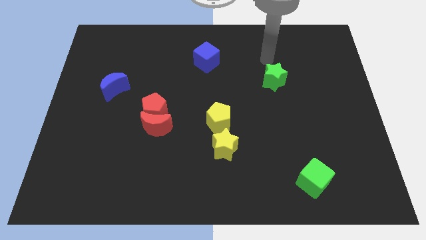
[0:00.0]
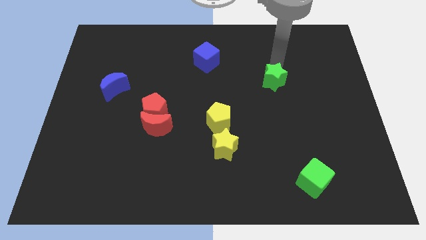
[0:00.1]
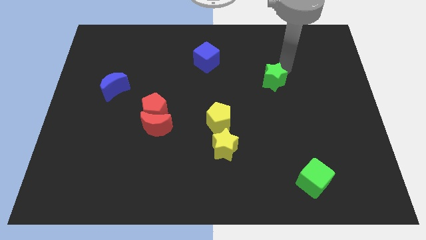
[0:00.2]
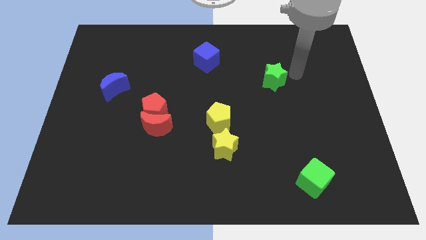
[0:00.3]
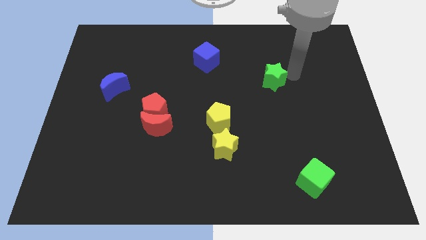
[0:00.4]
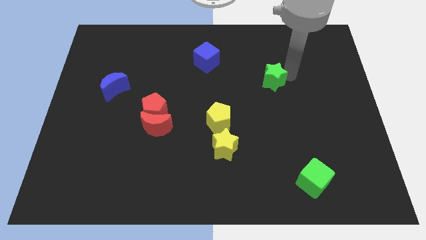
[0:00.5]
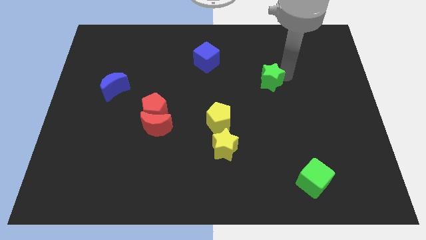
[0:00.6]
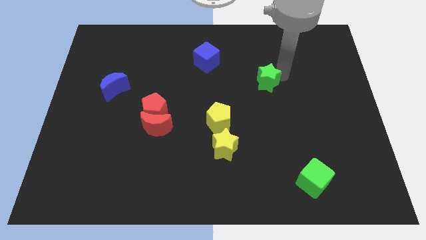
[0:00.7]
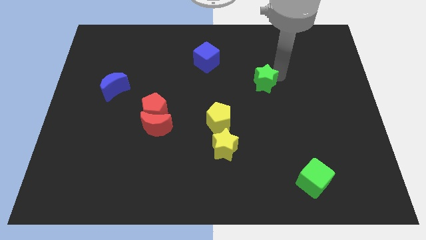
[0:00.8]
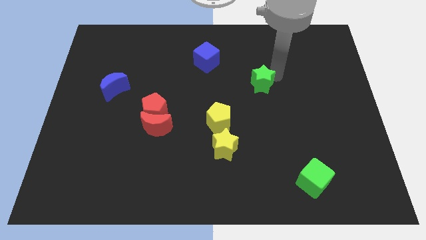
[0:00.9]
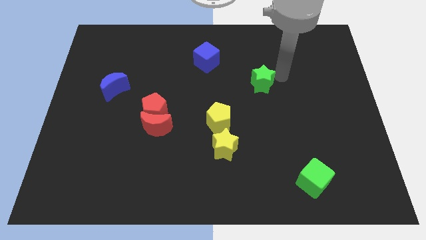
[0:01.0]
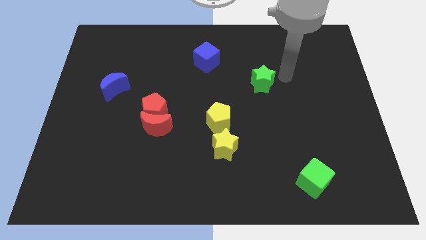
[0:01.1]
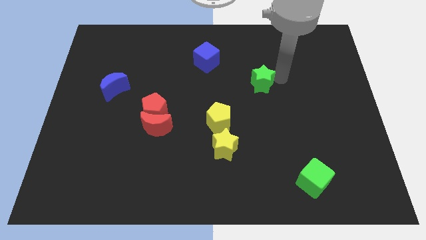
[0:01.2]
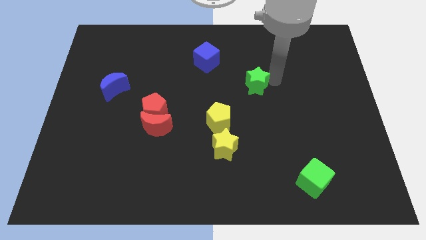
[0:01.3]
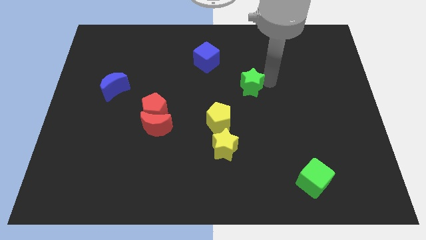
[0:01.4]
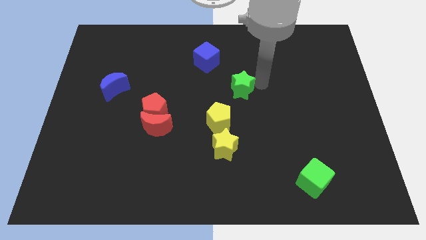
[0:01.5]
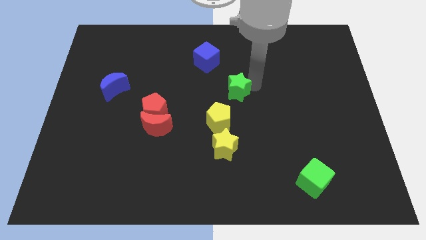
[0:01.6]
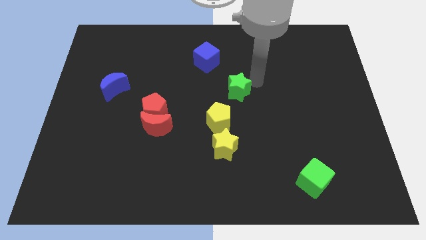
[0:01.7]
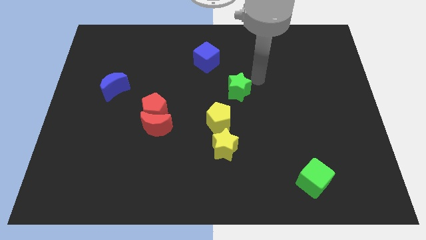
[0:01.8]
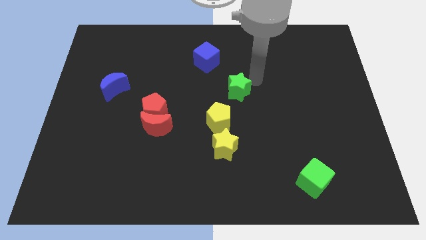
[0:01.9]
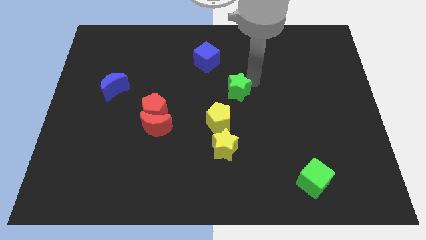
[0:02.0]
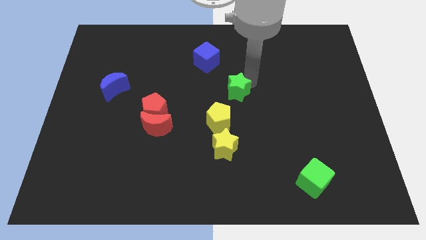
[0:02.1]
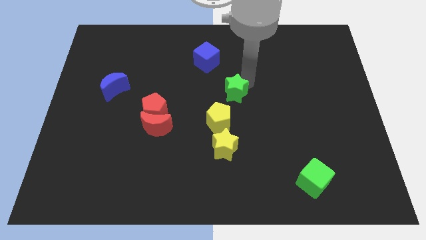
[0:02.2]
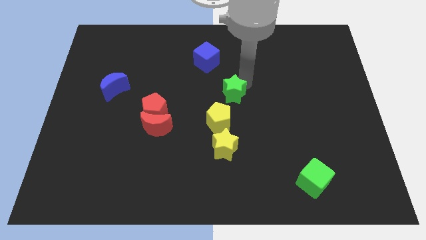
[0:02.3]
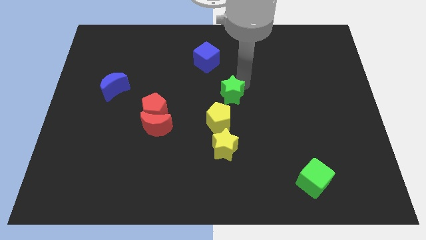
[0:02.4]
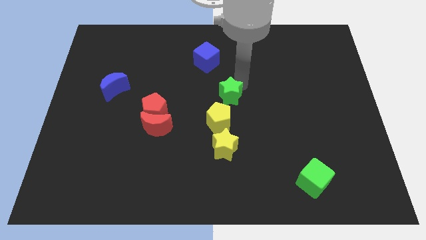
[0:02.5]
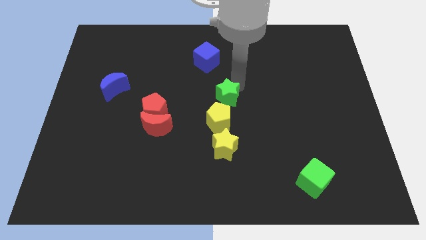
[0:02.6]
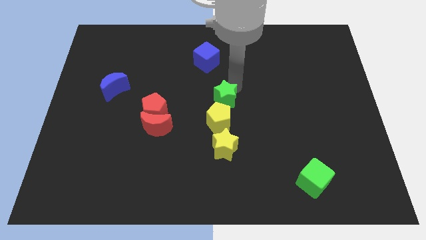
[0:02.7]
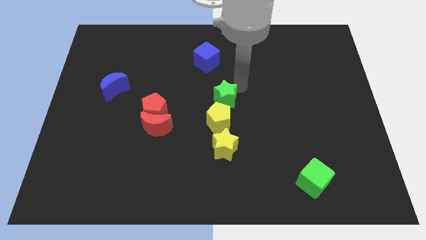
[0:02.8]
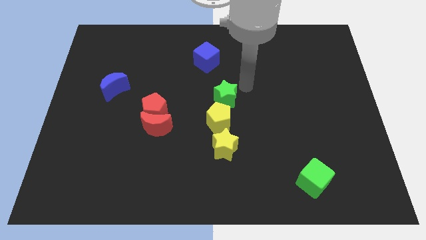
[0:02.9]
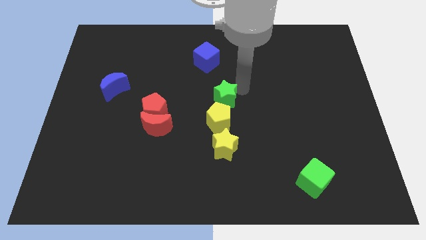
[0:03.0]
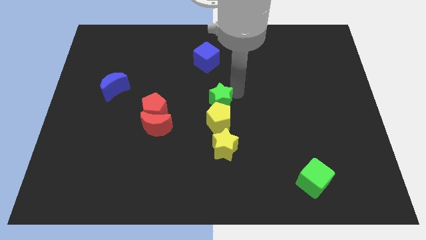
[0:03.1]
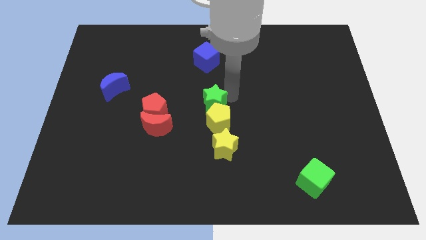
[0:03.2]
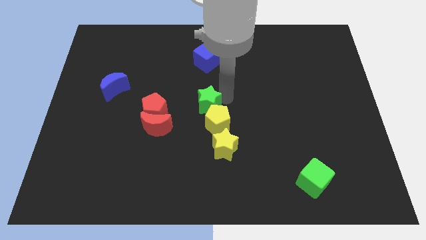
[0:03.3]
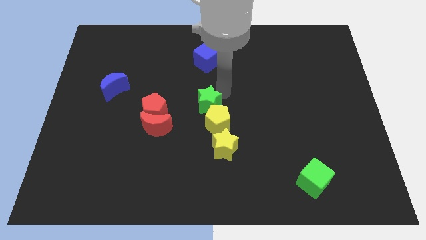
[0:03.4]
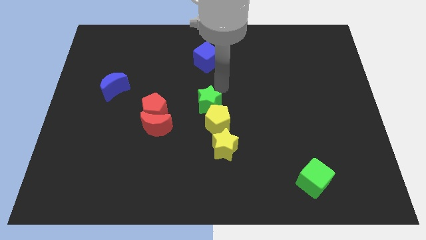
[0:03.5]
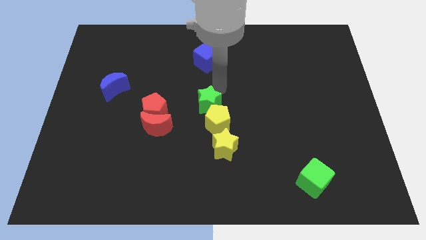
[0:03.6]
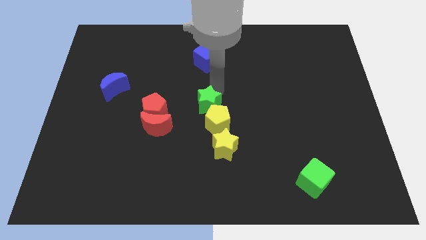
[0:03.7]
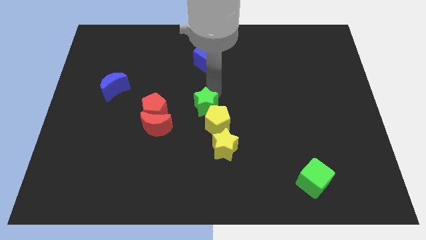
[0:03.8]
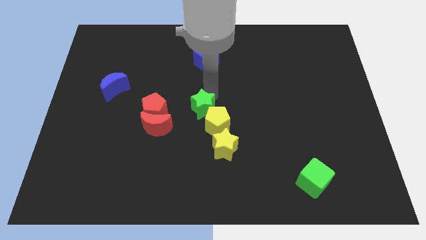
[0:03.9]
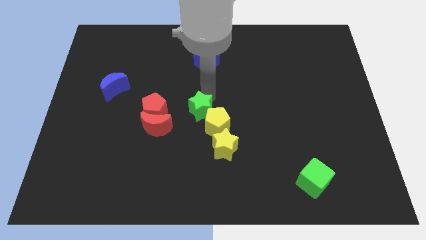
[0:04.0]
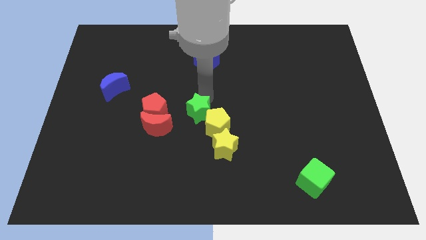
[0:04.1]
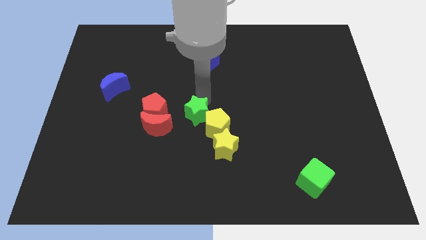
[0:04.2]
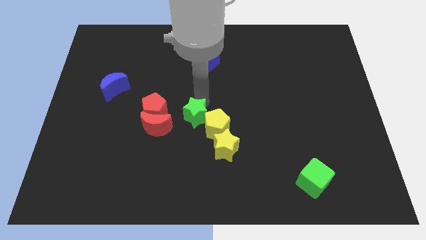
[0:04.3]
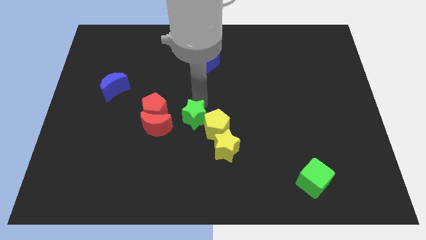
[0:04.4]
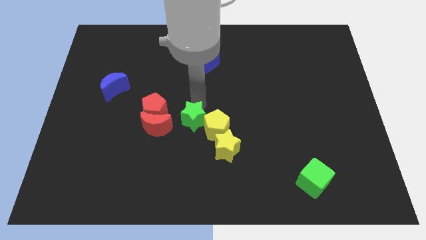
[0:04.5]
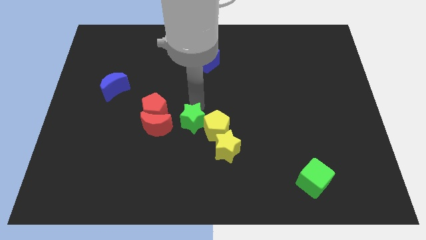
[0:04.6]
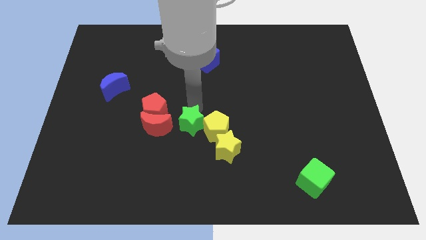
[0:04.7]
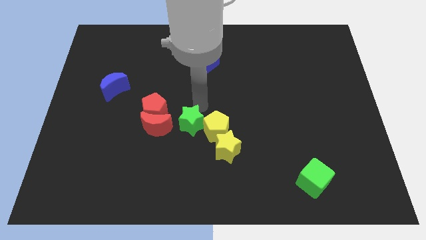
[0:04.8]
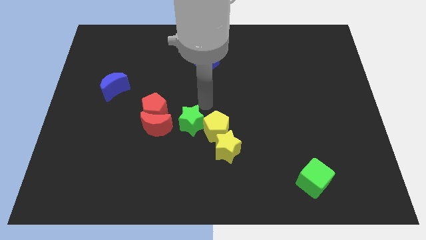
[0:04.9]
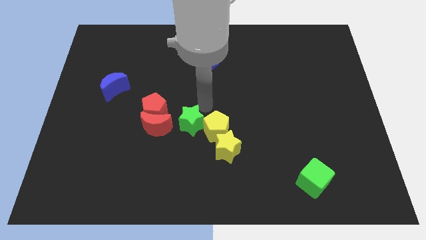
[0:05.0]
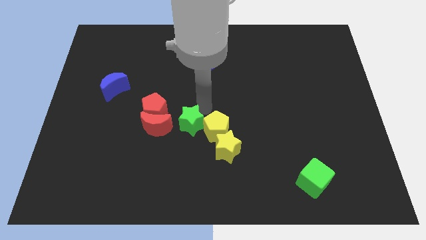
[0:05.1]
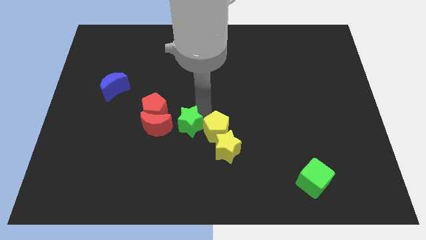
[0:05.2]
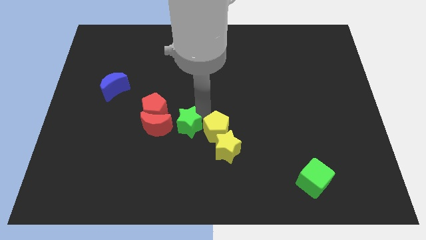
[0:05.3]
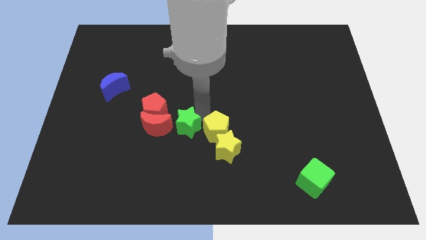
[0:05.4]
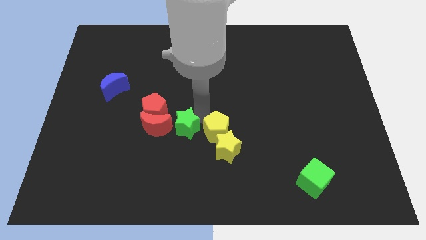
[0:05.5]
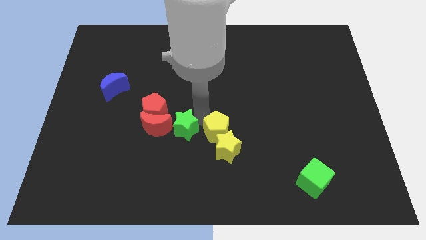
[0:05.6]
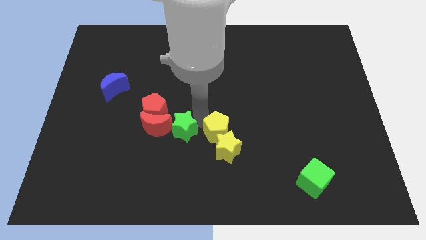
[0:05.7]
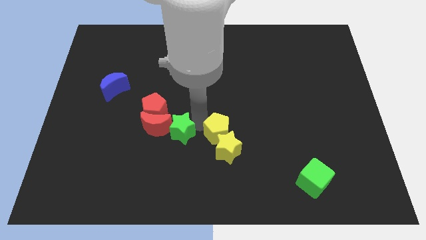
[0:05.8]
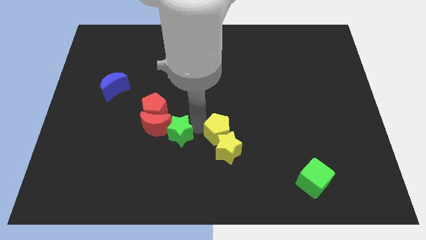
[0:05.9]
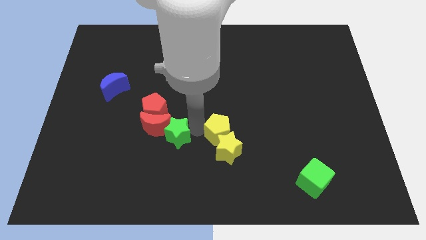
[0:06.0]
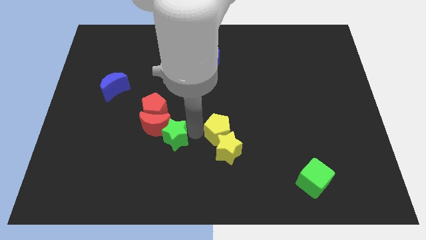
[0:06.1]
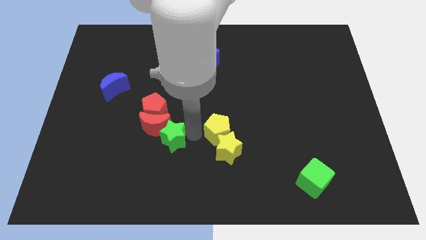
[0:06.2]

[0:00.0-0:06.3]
move the green star to the bottom side of the red moon
